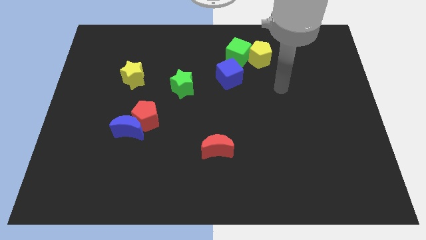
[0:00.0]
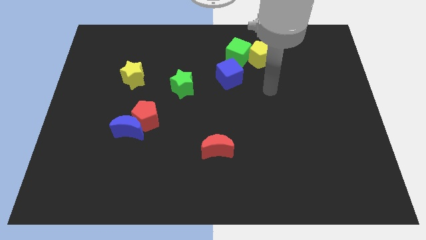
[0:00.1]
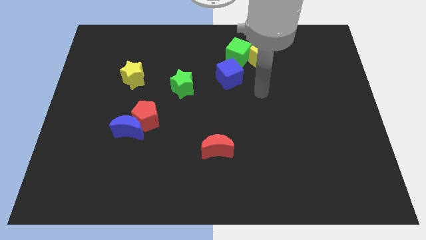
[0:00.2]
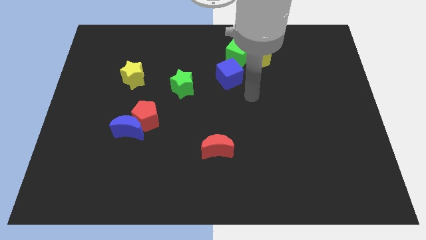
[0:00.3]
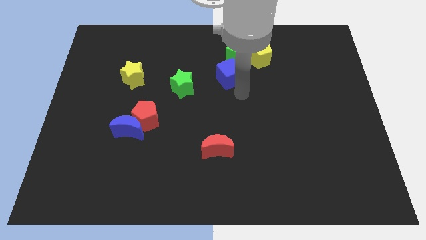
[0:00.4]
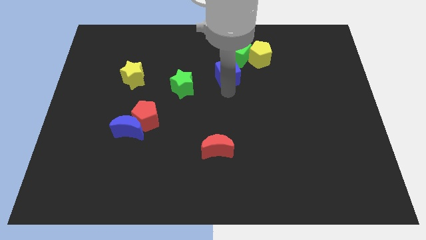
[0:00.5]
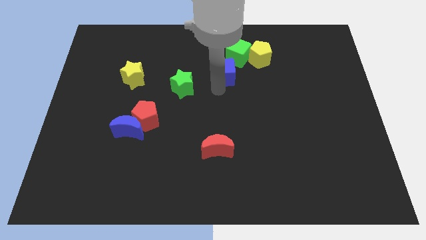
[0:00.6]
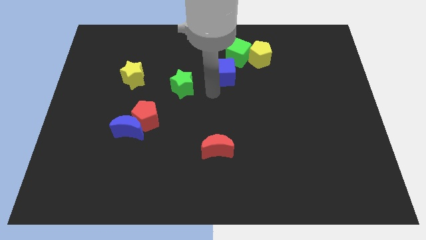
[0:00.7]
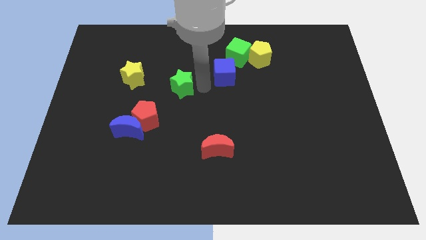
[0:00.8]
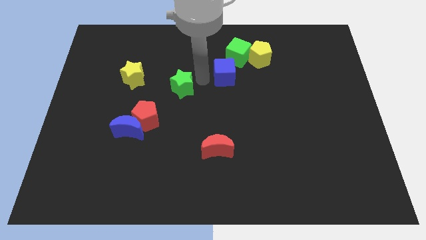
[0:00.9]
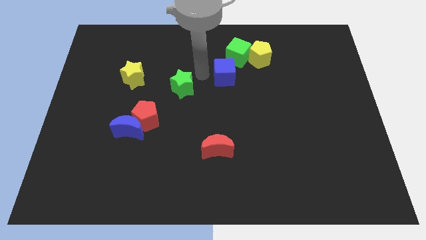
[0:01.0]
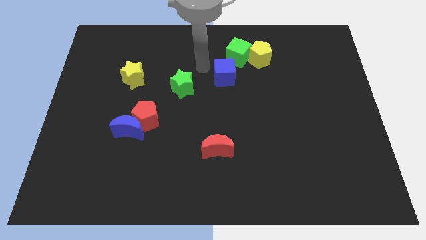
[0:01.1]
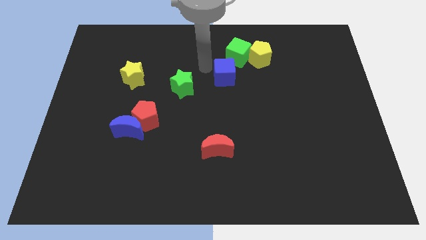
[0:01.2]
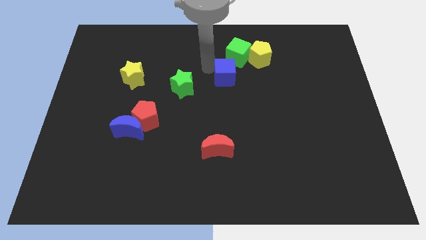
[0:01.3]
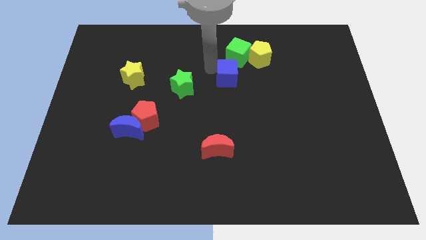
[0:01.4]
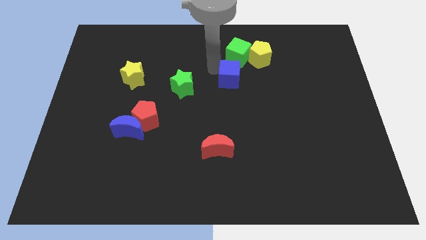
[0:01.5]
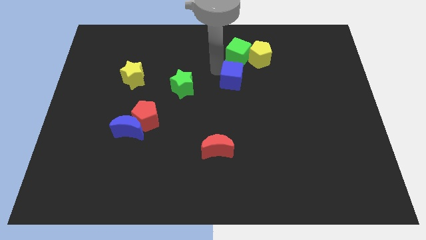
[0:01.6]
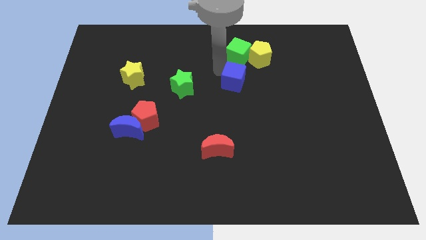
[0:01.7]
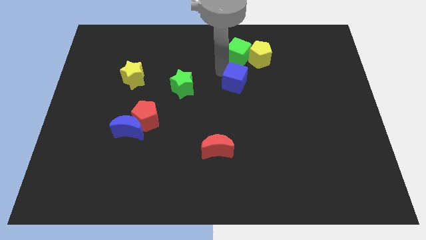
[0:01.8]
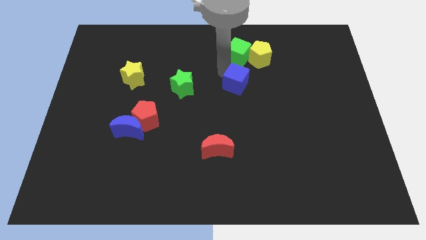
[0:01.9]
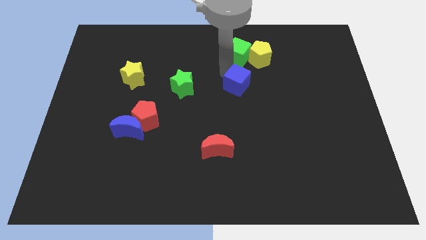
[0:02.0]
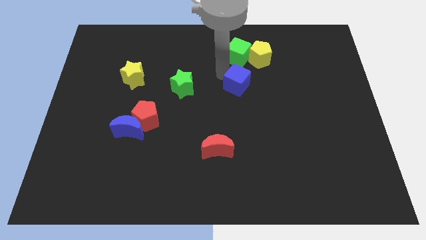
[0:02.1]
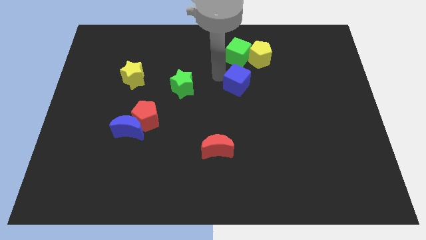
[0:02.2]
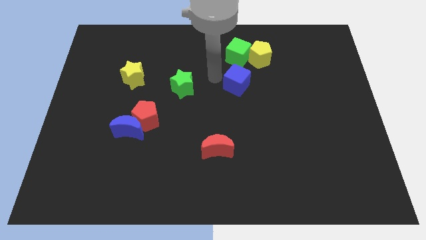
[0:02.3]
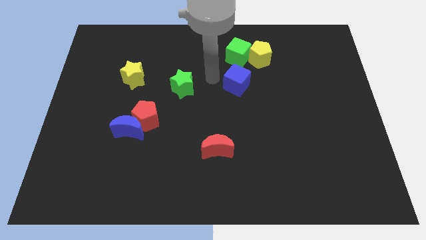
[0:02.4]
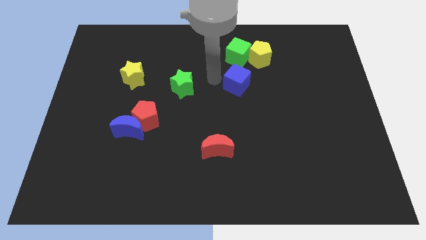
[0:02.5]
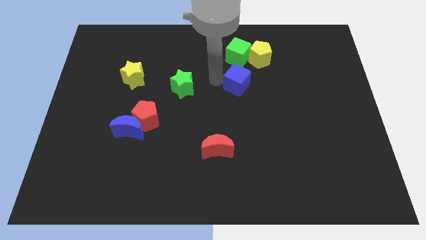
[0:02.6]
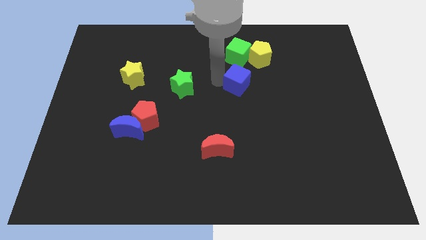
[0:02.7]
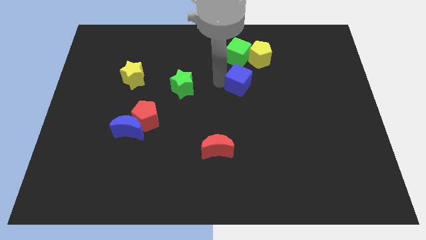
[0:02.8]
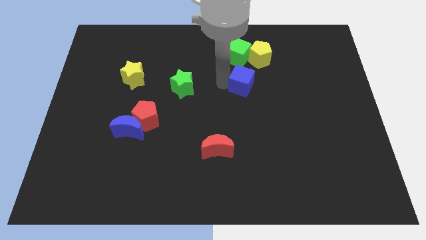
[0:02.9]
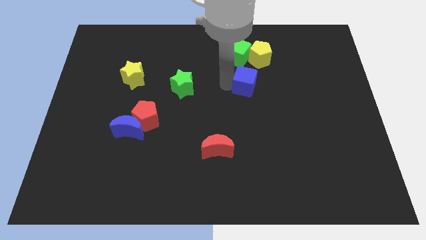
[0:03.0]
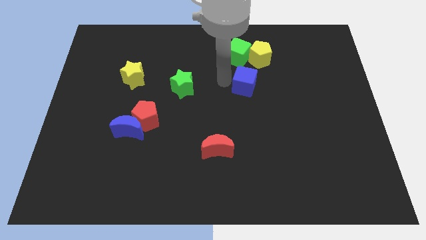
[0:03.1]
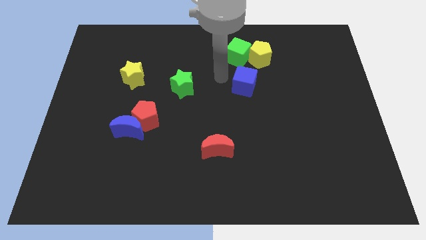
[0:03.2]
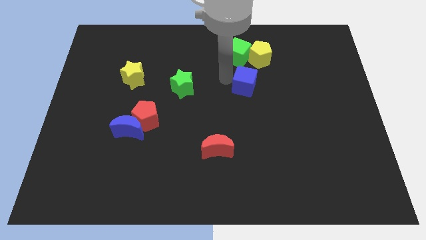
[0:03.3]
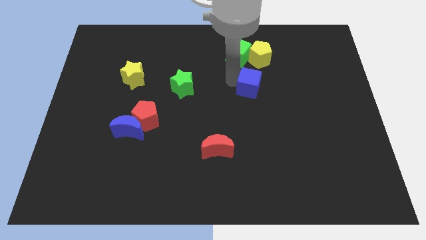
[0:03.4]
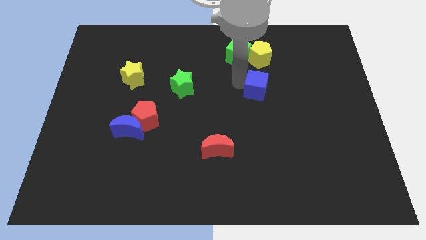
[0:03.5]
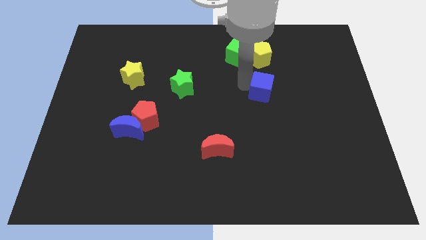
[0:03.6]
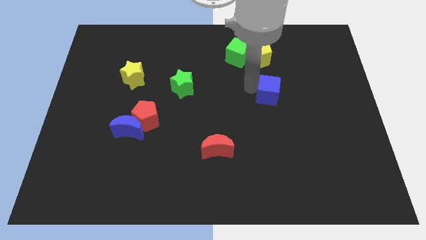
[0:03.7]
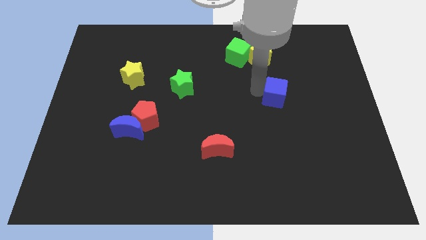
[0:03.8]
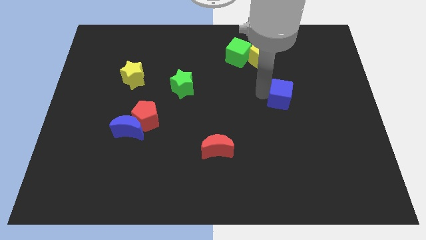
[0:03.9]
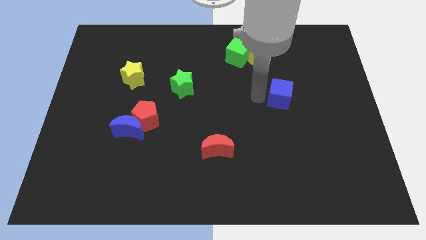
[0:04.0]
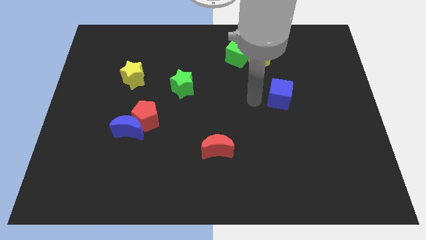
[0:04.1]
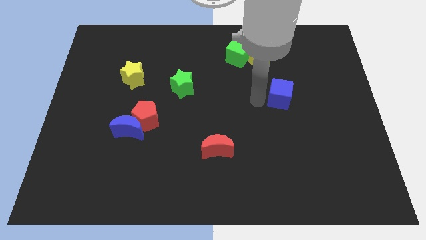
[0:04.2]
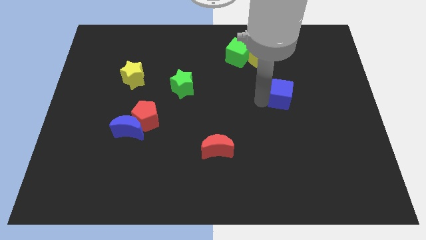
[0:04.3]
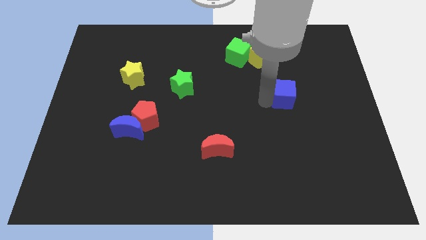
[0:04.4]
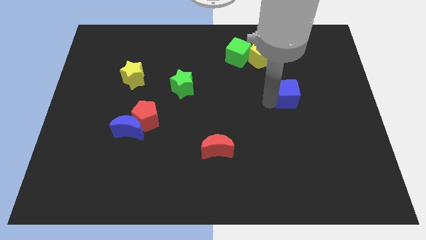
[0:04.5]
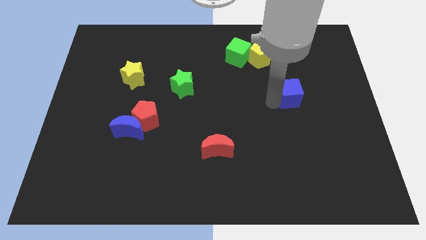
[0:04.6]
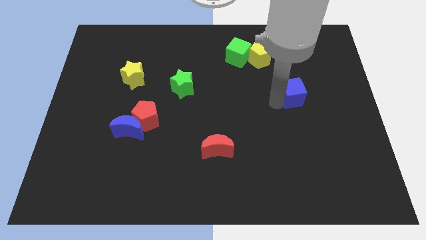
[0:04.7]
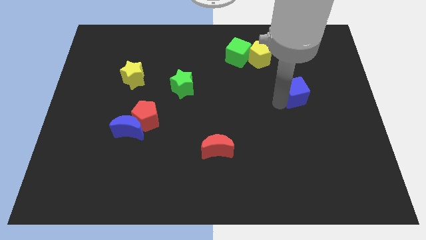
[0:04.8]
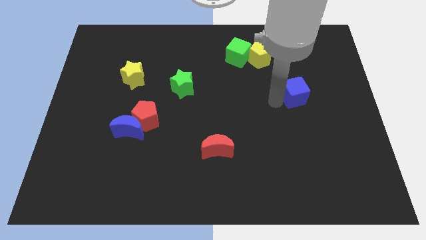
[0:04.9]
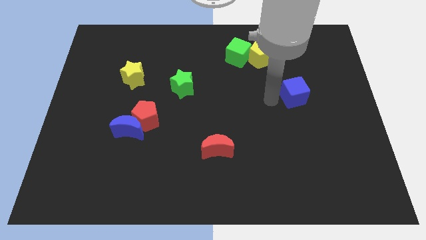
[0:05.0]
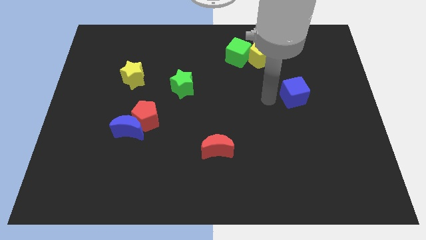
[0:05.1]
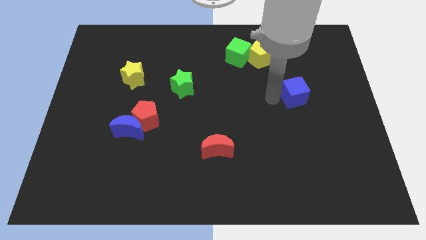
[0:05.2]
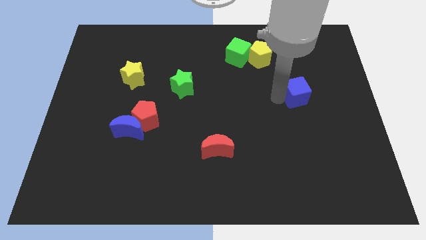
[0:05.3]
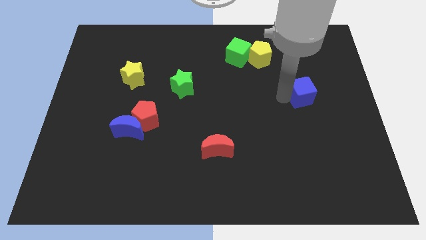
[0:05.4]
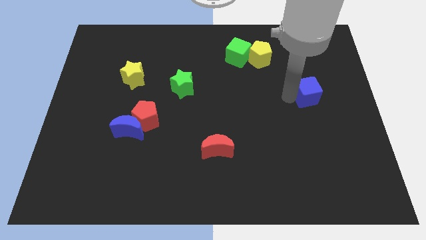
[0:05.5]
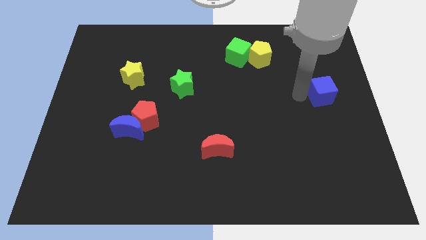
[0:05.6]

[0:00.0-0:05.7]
put the blue cube to the center right

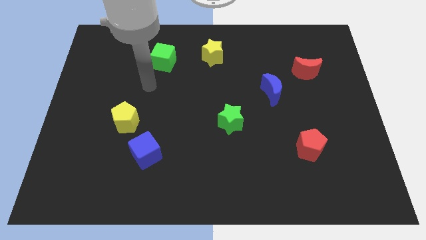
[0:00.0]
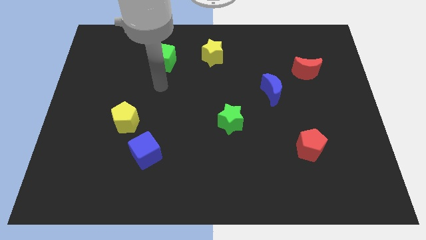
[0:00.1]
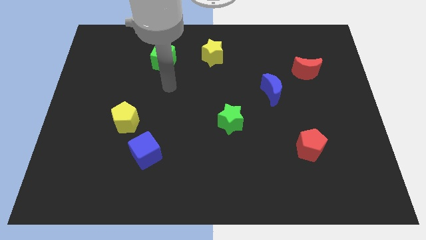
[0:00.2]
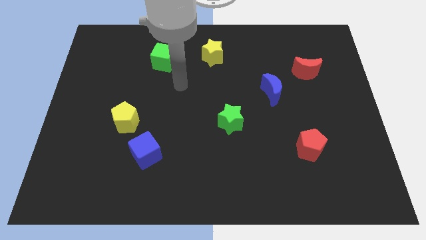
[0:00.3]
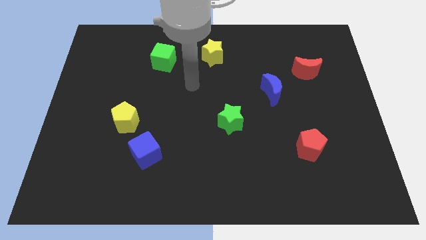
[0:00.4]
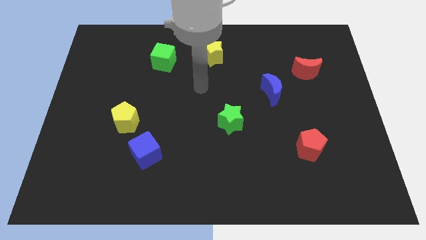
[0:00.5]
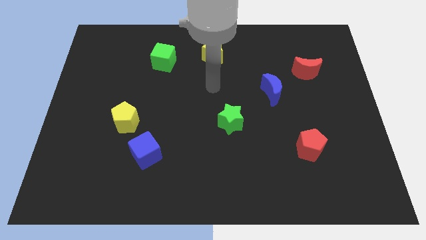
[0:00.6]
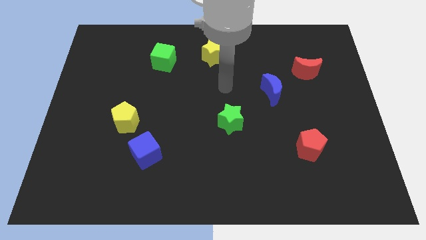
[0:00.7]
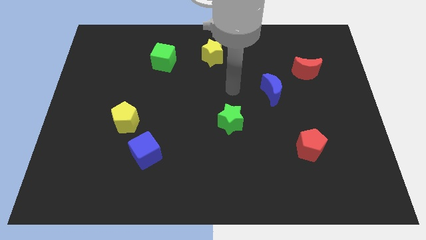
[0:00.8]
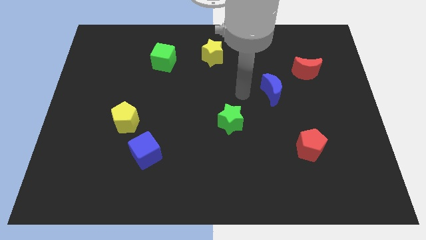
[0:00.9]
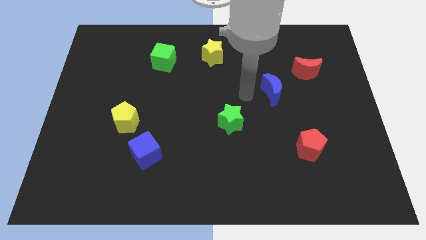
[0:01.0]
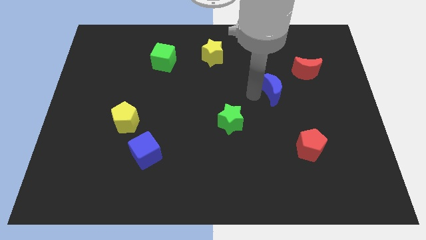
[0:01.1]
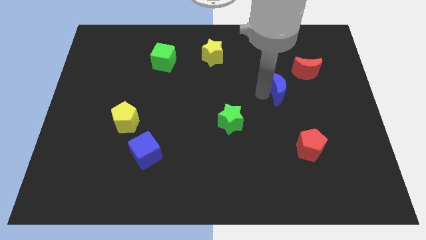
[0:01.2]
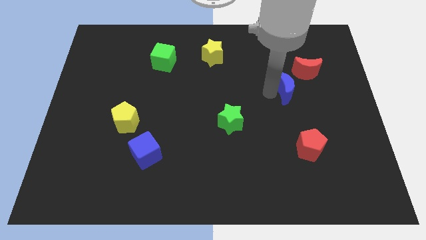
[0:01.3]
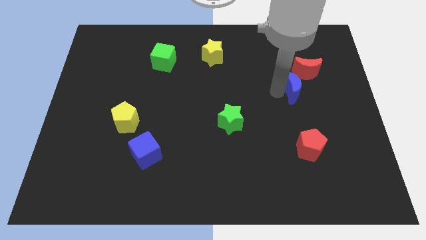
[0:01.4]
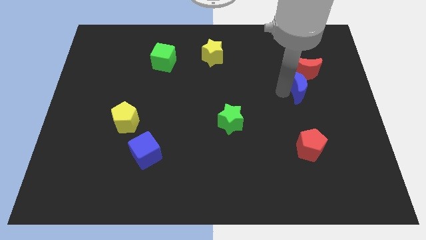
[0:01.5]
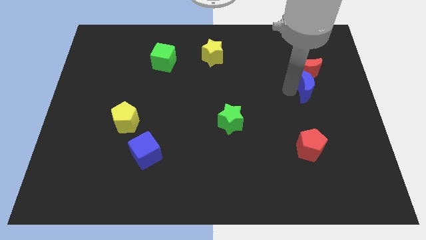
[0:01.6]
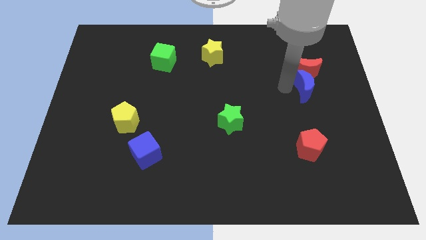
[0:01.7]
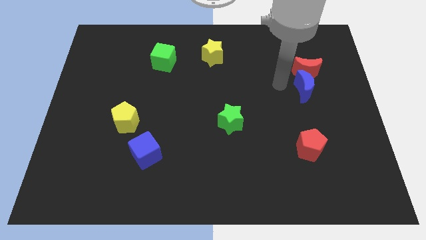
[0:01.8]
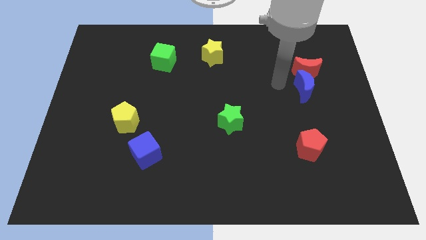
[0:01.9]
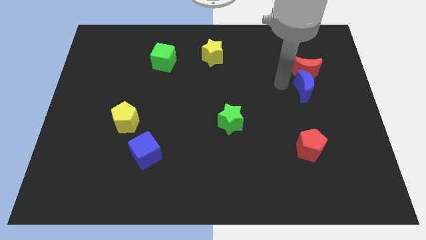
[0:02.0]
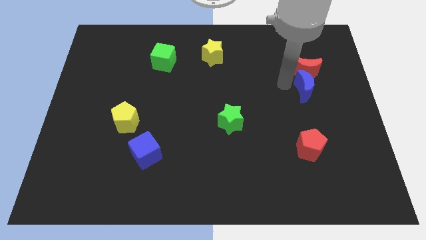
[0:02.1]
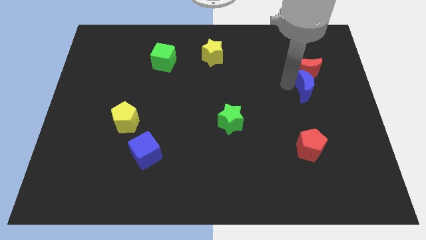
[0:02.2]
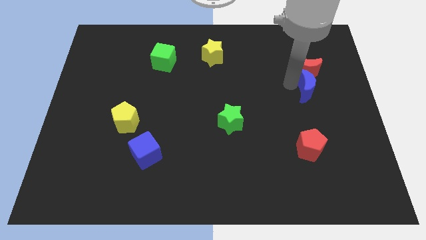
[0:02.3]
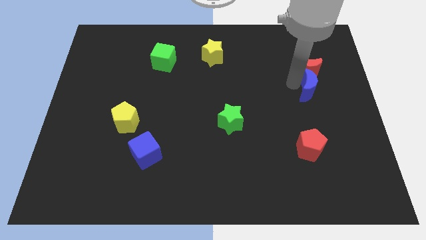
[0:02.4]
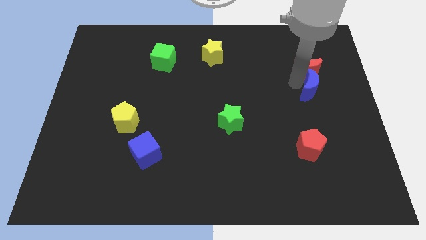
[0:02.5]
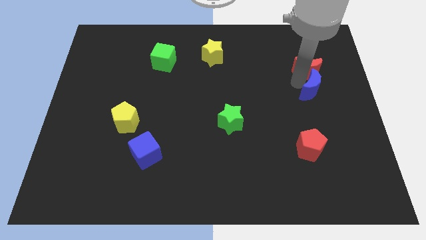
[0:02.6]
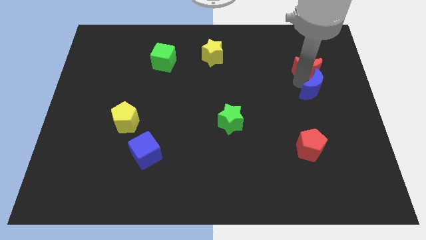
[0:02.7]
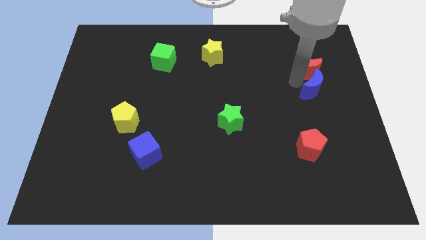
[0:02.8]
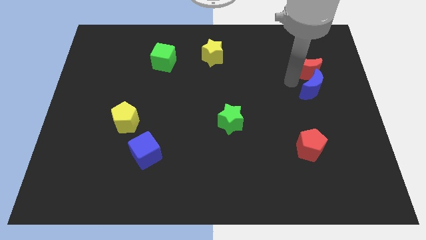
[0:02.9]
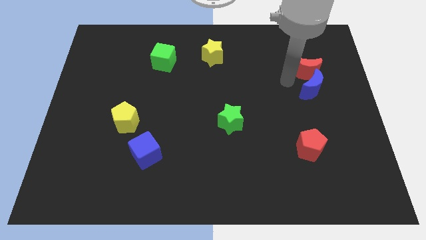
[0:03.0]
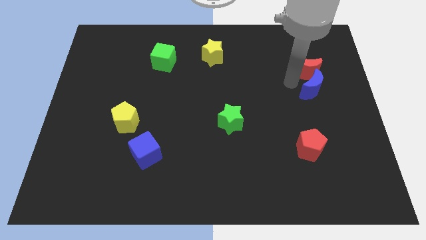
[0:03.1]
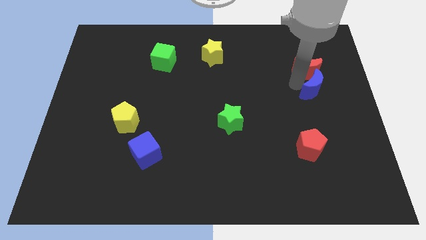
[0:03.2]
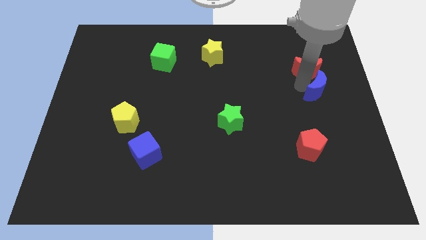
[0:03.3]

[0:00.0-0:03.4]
put the blue moon to the right side of the board
